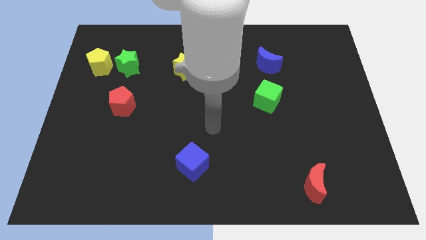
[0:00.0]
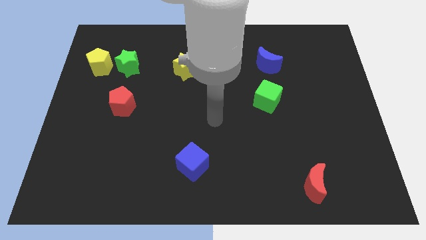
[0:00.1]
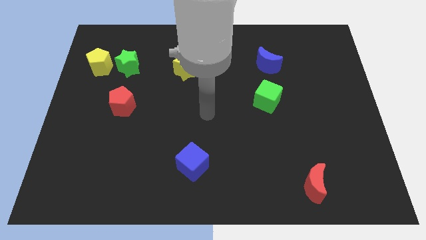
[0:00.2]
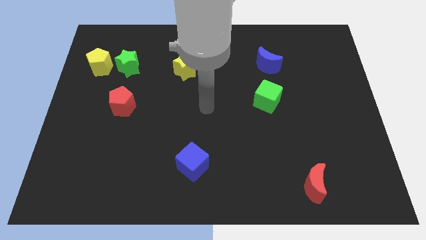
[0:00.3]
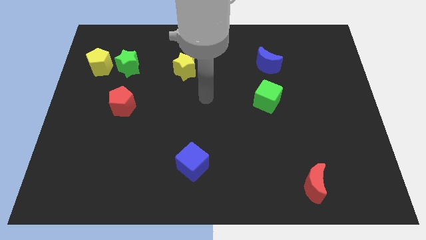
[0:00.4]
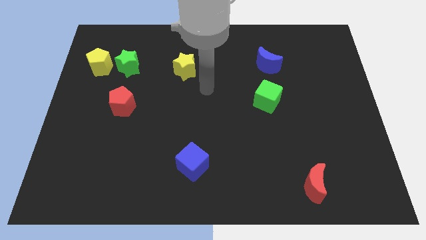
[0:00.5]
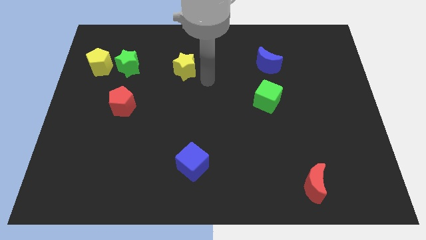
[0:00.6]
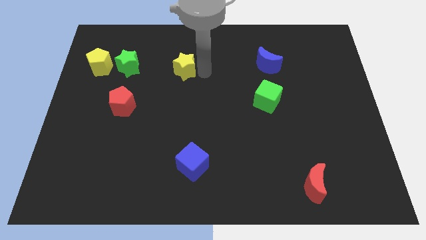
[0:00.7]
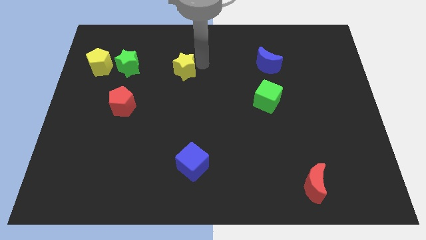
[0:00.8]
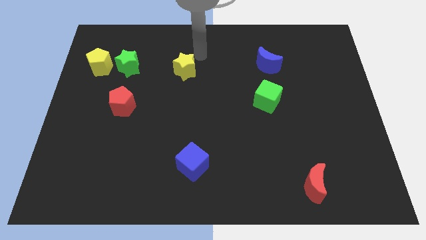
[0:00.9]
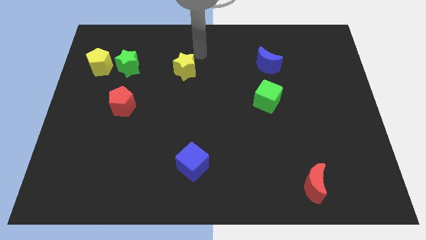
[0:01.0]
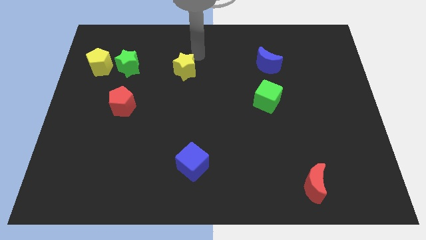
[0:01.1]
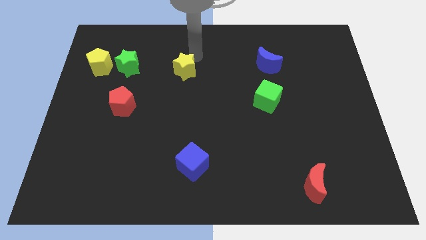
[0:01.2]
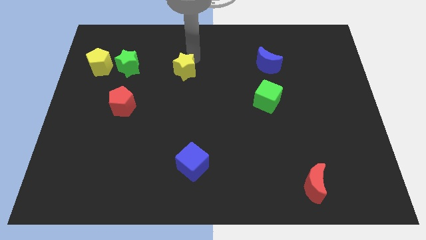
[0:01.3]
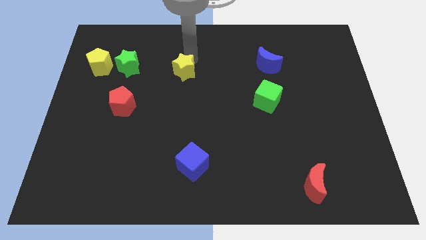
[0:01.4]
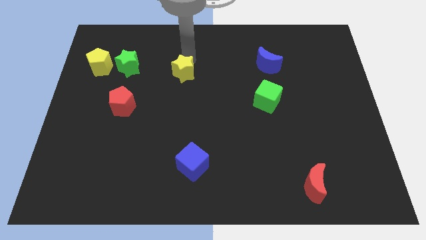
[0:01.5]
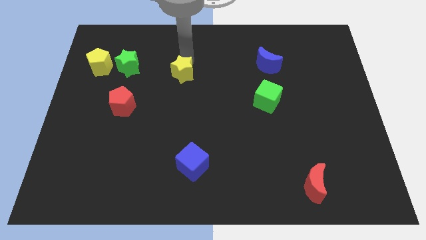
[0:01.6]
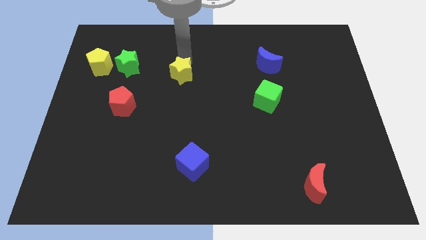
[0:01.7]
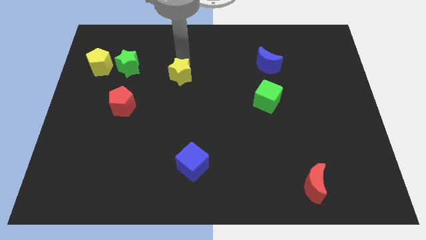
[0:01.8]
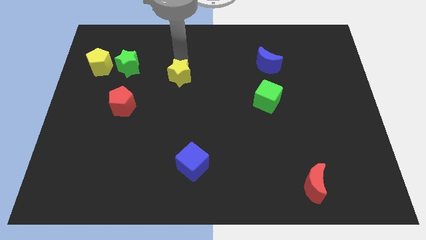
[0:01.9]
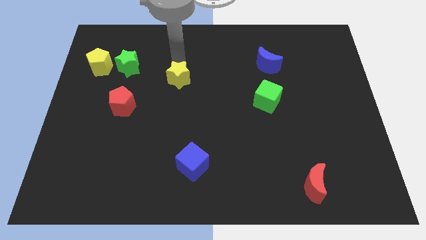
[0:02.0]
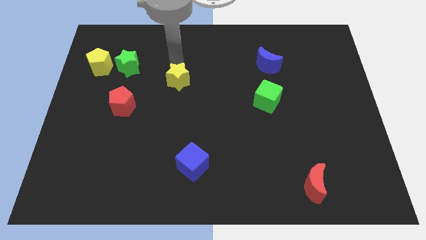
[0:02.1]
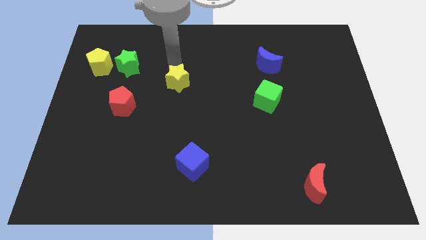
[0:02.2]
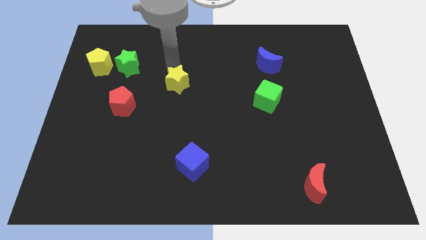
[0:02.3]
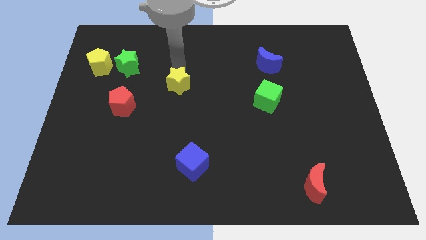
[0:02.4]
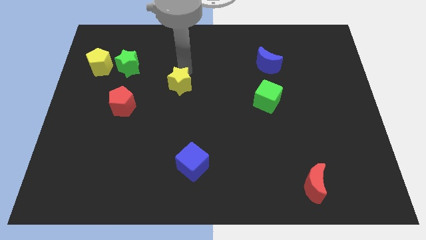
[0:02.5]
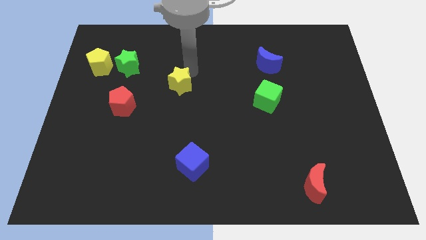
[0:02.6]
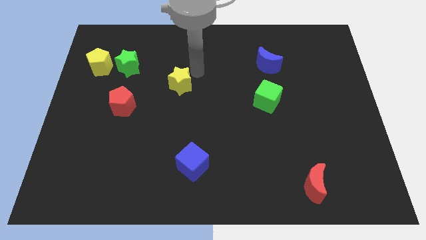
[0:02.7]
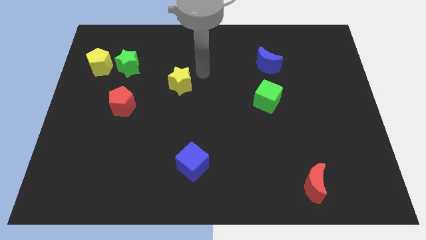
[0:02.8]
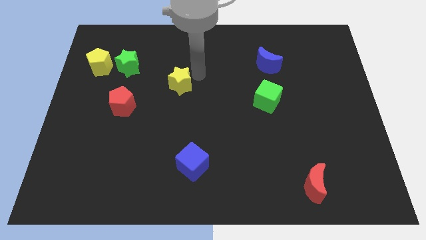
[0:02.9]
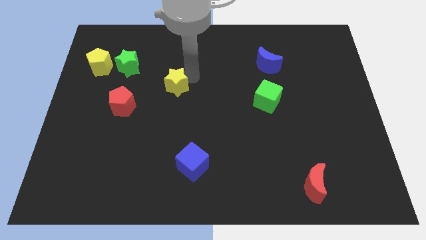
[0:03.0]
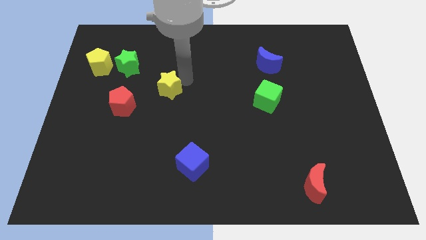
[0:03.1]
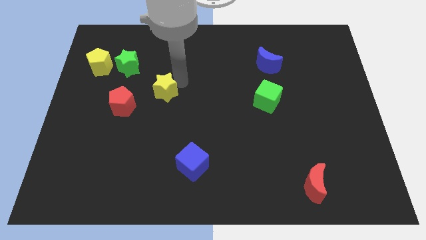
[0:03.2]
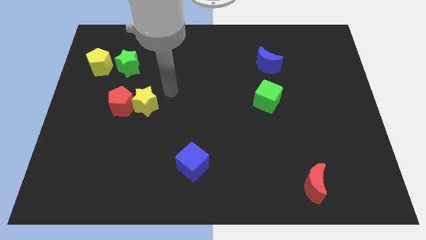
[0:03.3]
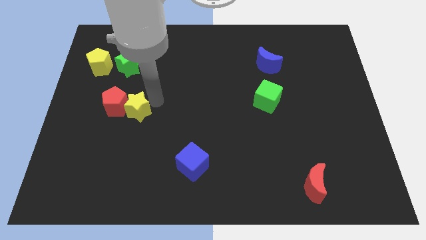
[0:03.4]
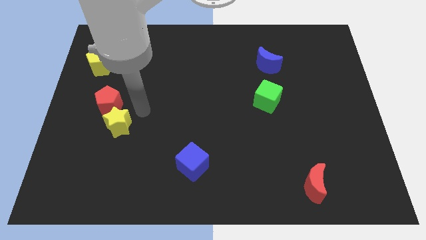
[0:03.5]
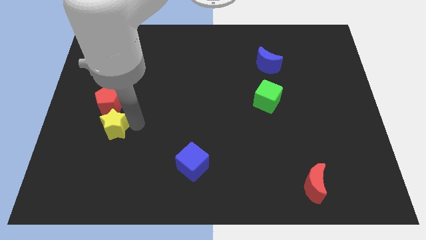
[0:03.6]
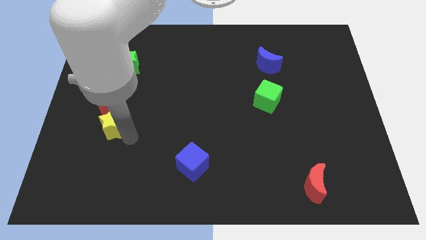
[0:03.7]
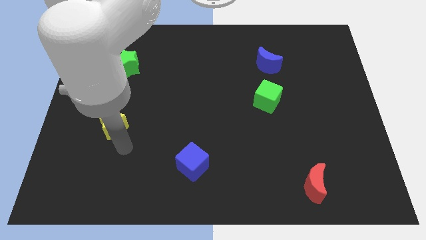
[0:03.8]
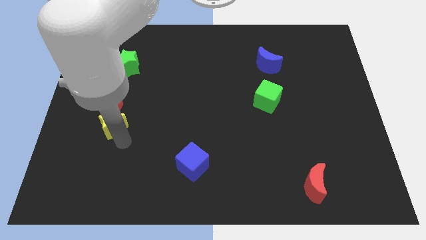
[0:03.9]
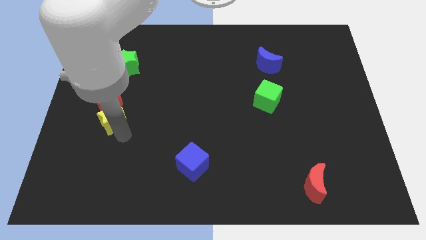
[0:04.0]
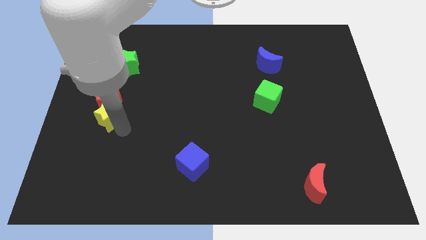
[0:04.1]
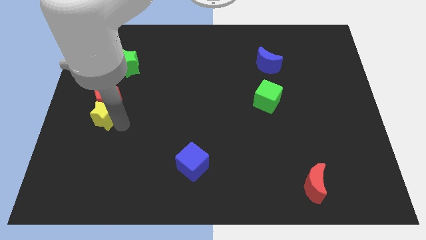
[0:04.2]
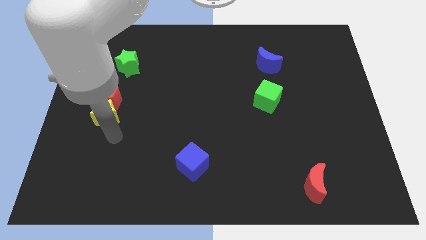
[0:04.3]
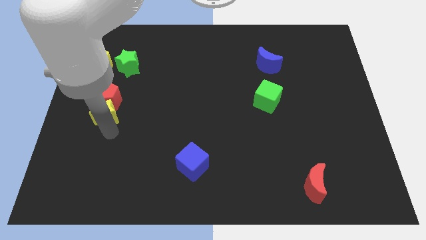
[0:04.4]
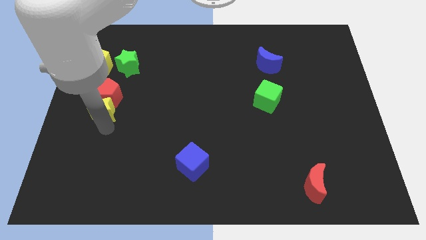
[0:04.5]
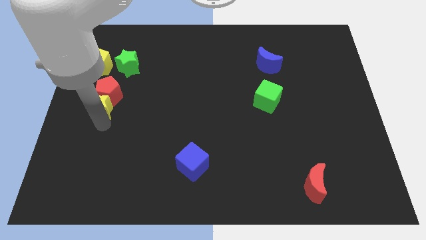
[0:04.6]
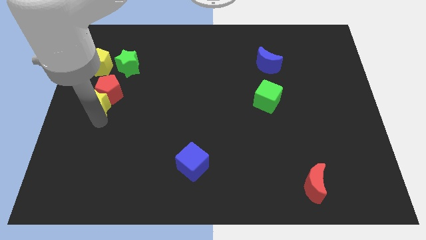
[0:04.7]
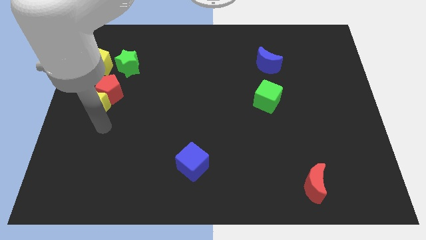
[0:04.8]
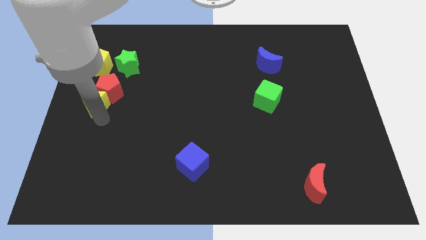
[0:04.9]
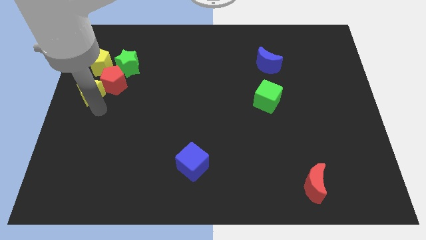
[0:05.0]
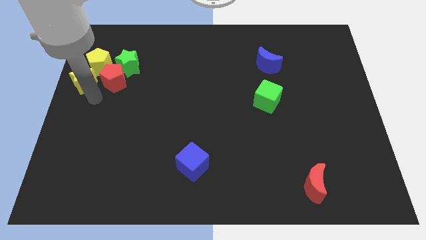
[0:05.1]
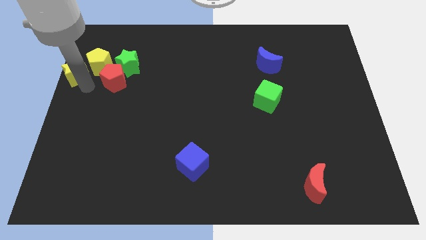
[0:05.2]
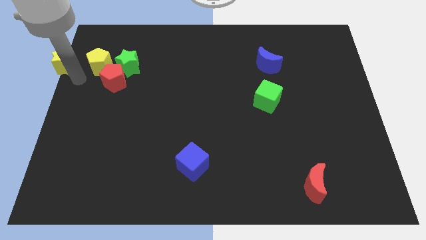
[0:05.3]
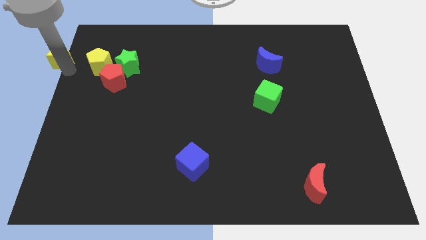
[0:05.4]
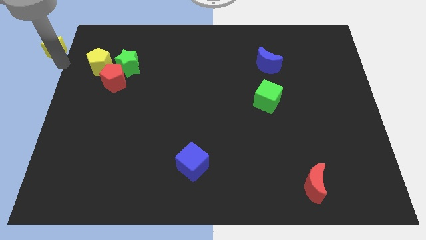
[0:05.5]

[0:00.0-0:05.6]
move the yellow star to the top left of the board

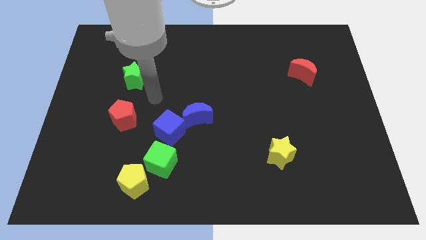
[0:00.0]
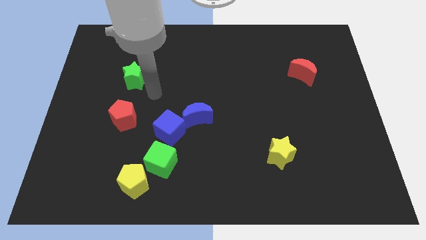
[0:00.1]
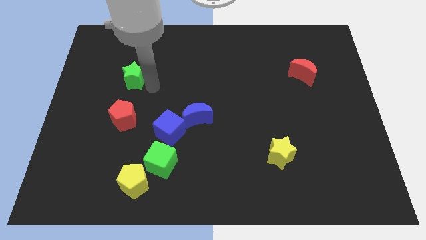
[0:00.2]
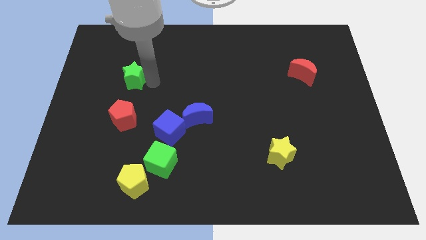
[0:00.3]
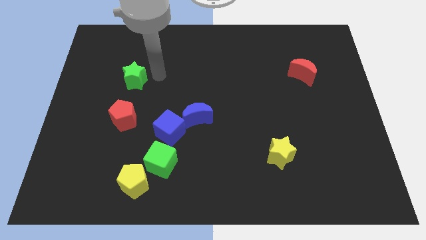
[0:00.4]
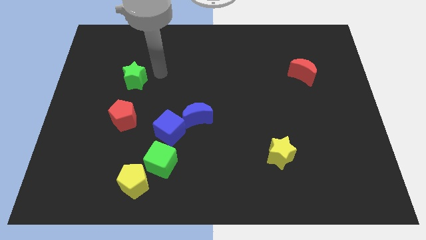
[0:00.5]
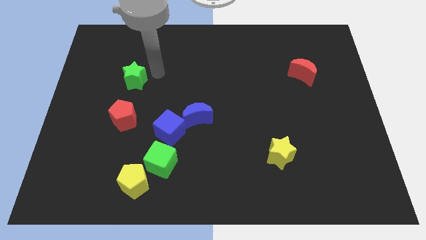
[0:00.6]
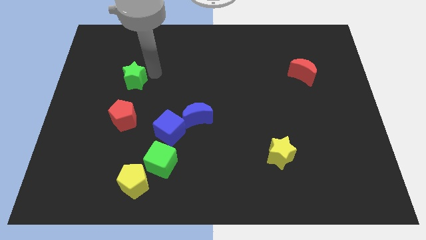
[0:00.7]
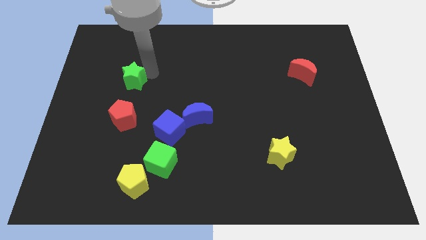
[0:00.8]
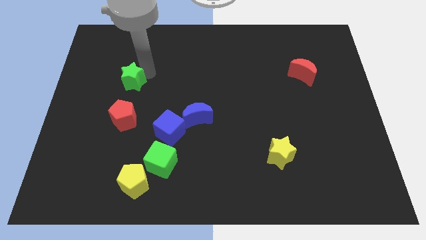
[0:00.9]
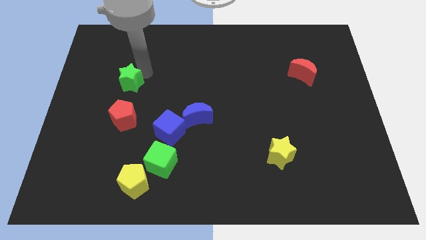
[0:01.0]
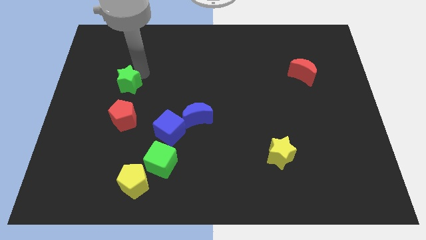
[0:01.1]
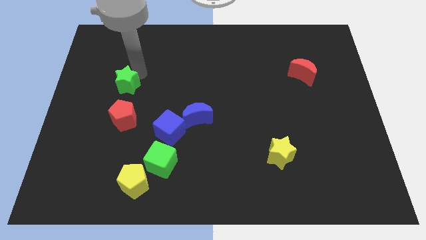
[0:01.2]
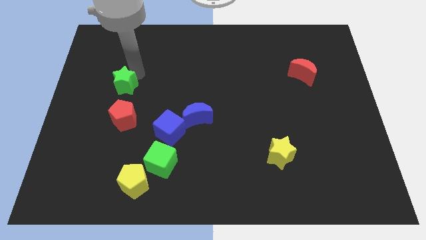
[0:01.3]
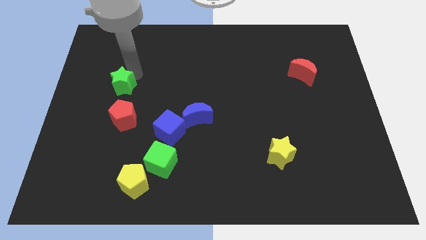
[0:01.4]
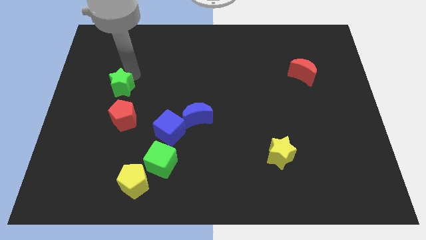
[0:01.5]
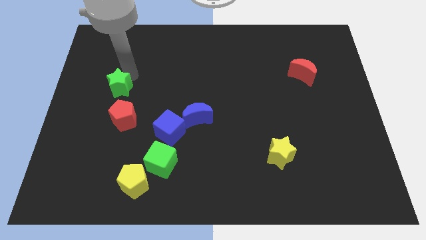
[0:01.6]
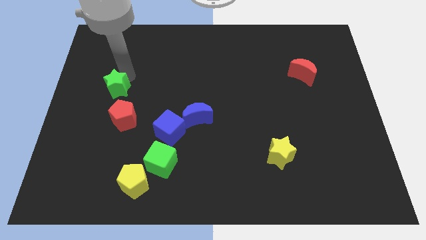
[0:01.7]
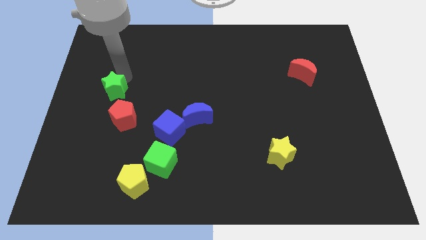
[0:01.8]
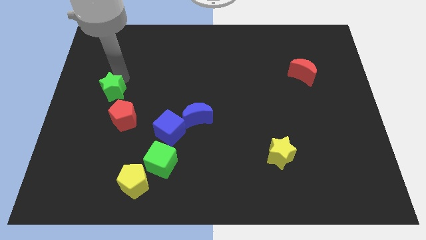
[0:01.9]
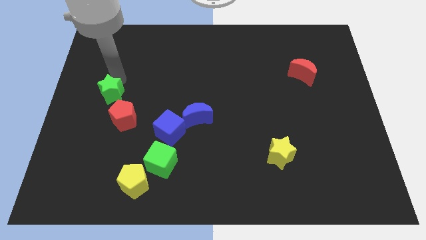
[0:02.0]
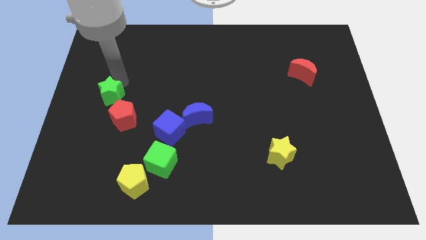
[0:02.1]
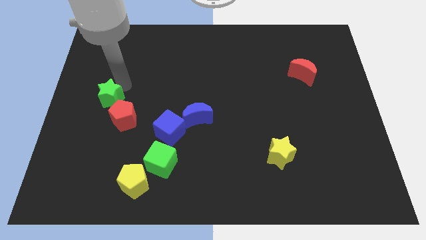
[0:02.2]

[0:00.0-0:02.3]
move the green star to the left side of the board
